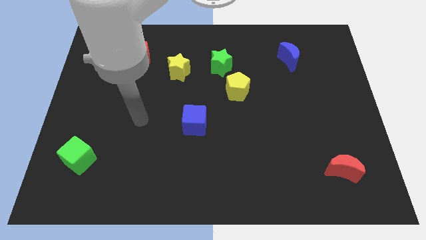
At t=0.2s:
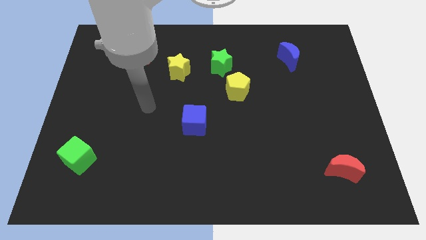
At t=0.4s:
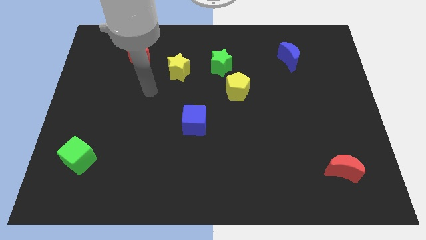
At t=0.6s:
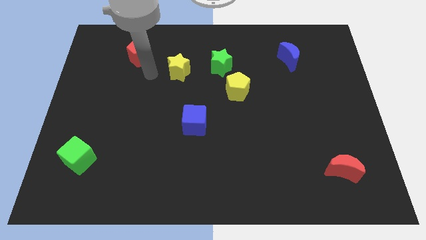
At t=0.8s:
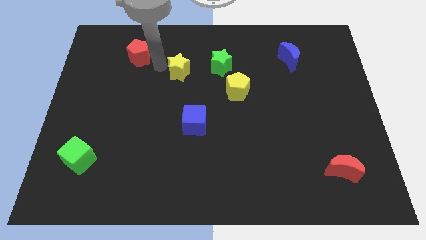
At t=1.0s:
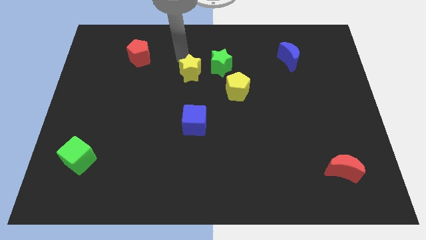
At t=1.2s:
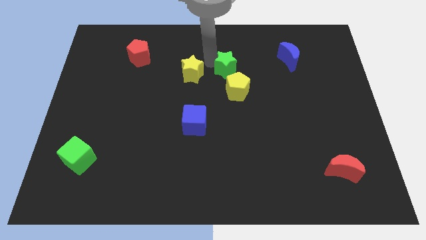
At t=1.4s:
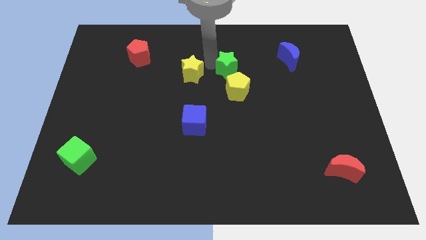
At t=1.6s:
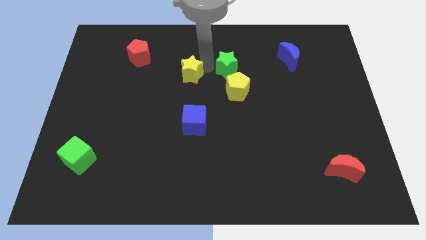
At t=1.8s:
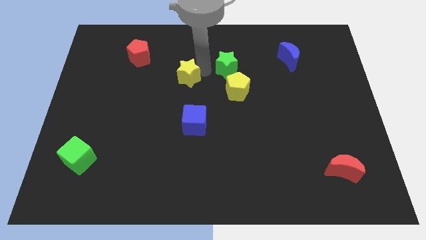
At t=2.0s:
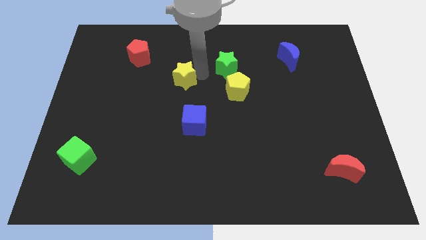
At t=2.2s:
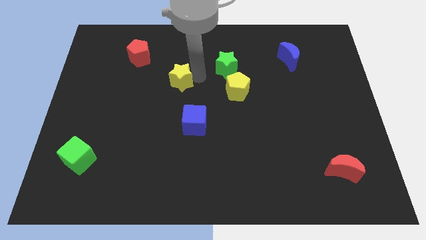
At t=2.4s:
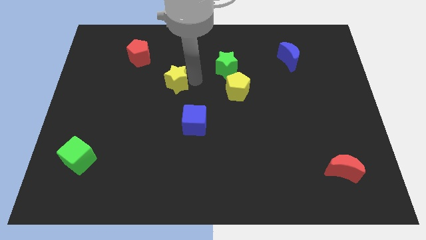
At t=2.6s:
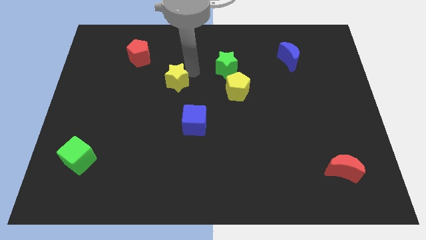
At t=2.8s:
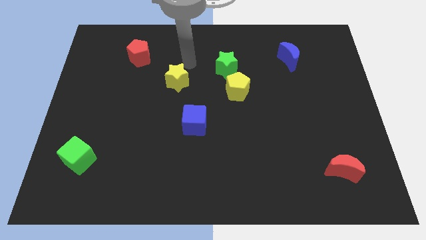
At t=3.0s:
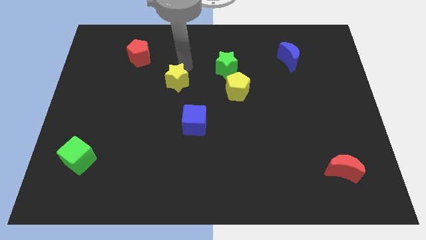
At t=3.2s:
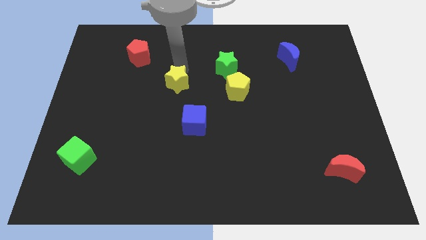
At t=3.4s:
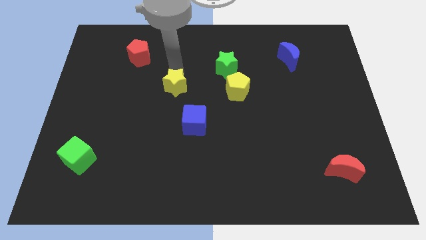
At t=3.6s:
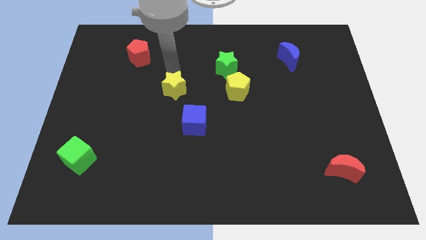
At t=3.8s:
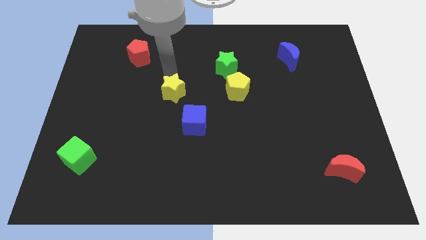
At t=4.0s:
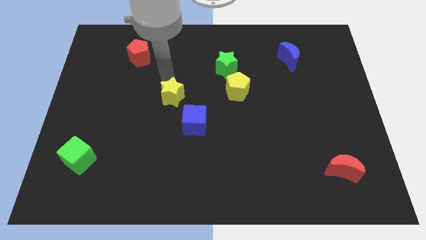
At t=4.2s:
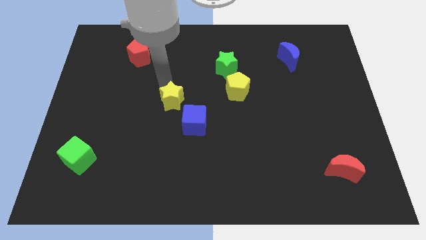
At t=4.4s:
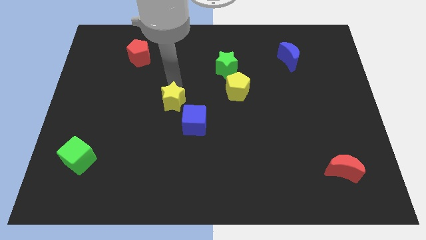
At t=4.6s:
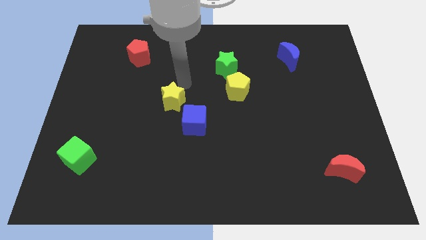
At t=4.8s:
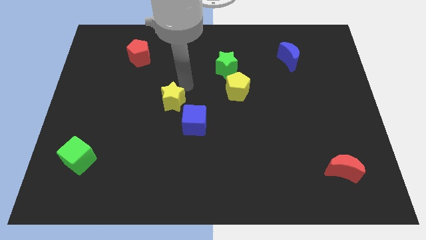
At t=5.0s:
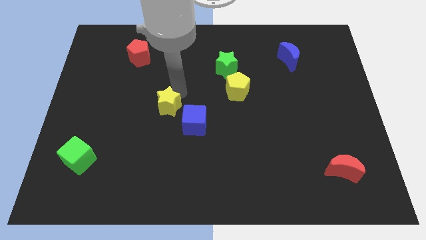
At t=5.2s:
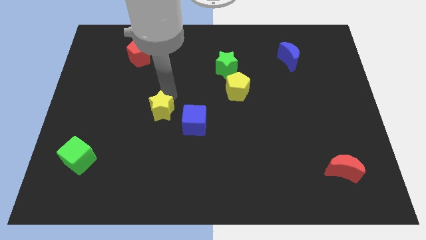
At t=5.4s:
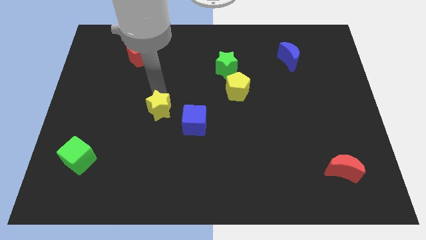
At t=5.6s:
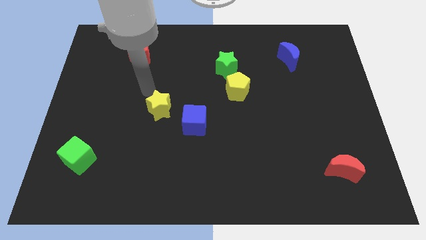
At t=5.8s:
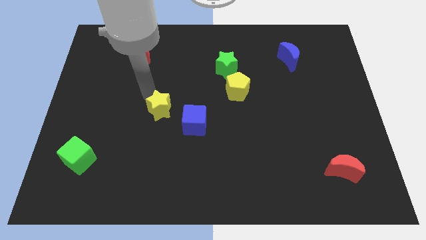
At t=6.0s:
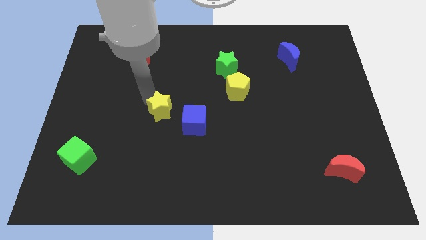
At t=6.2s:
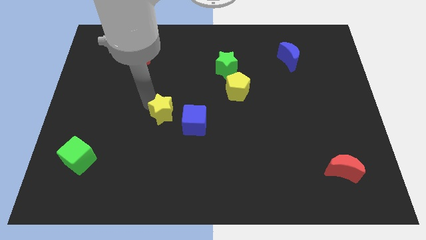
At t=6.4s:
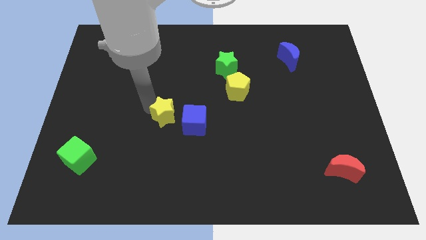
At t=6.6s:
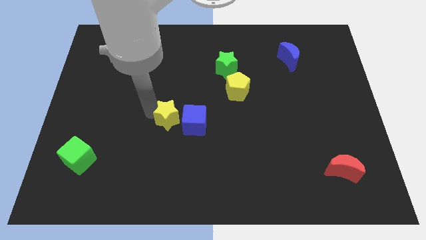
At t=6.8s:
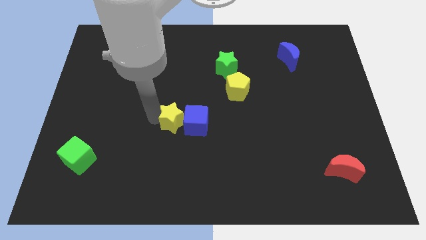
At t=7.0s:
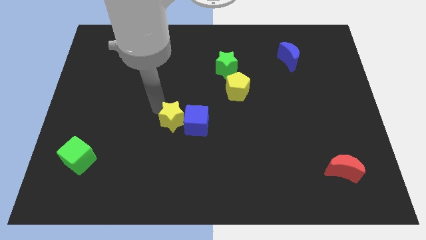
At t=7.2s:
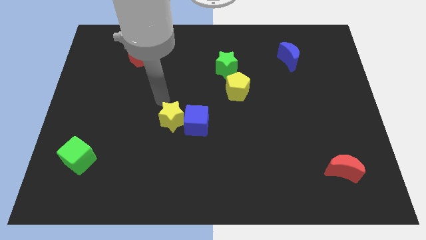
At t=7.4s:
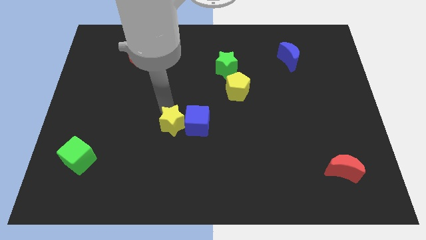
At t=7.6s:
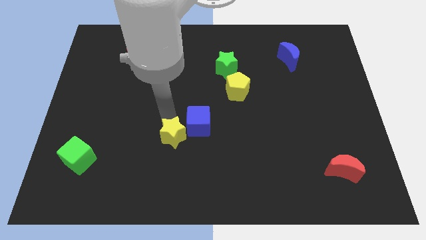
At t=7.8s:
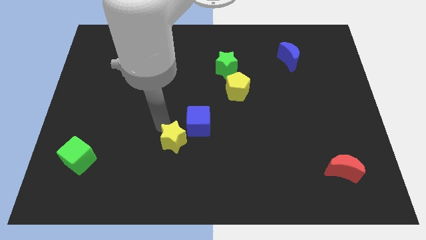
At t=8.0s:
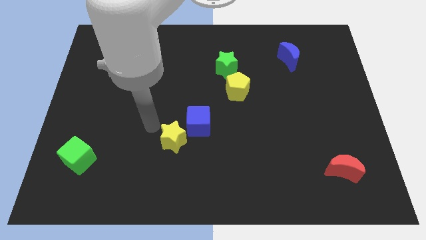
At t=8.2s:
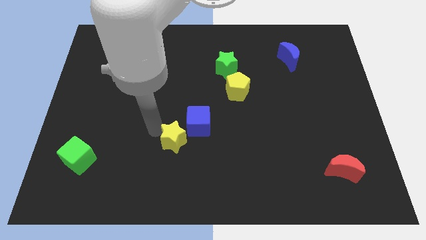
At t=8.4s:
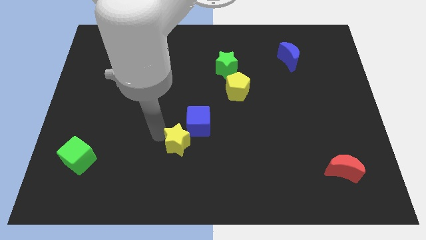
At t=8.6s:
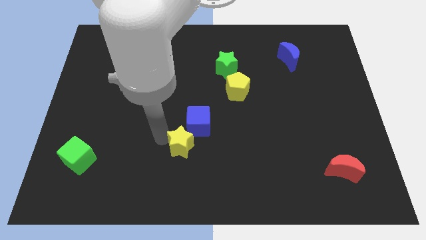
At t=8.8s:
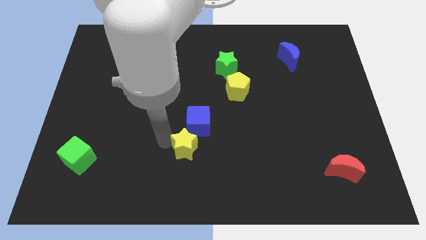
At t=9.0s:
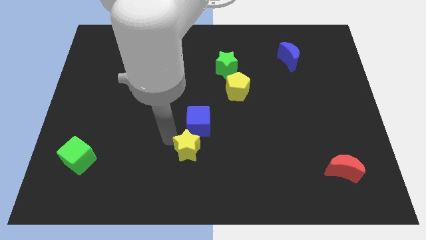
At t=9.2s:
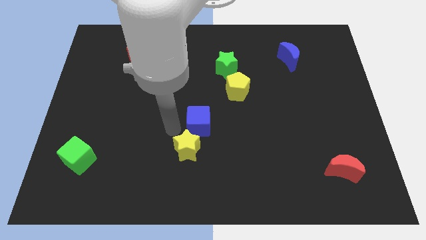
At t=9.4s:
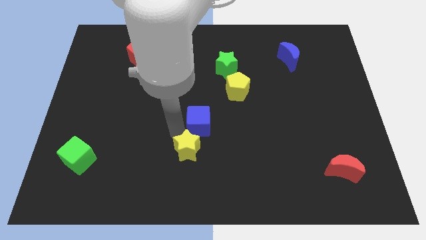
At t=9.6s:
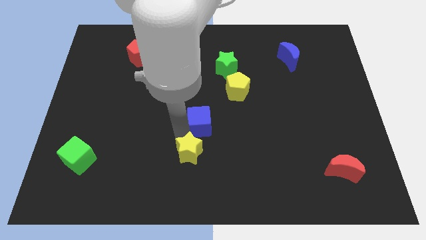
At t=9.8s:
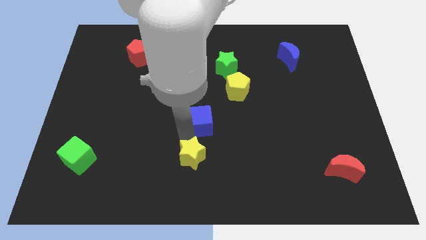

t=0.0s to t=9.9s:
move the yellow star to the bottom

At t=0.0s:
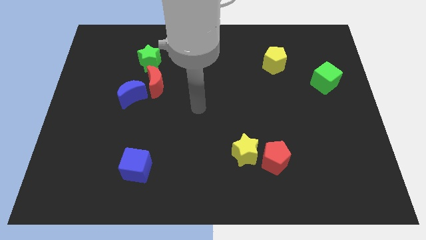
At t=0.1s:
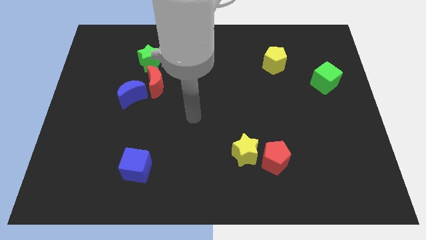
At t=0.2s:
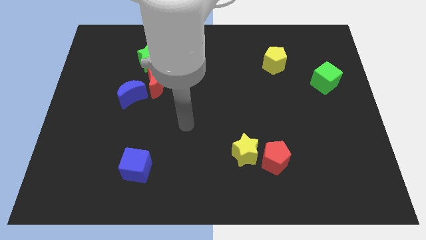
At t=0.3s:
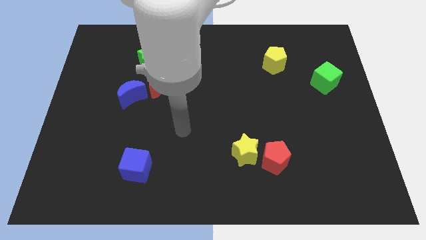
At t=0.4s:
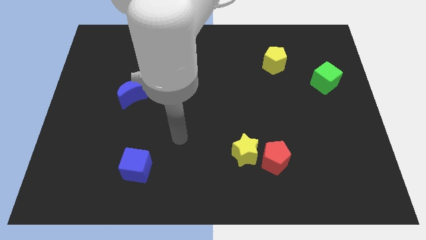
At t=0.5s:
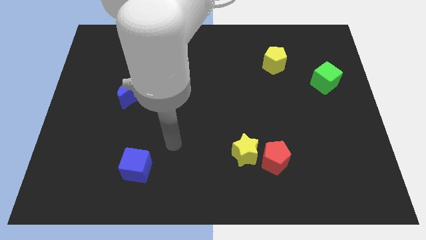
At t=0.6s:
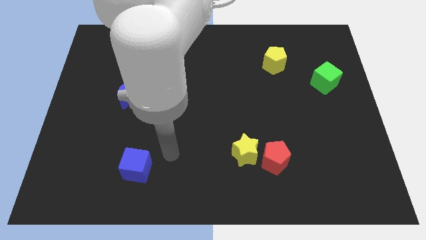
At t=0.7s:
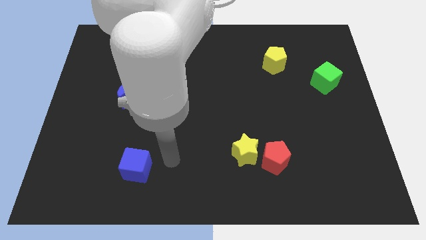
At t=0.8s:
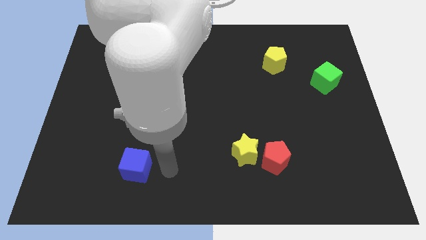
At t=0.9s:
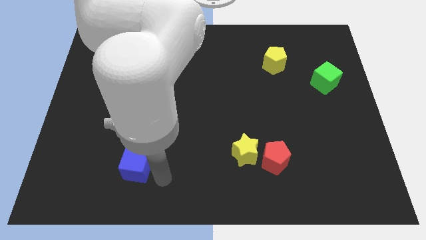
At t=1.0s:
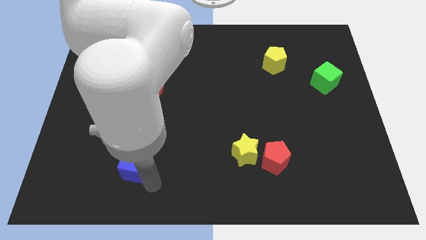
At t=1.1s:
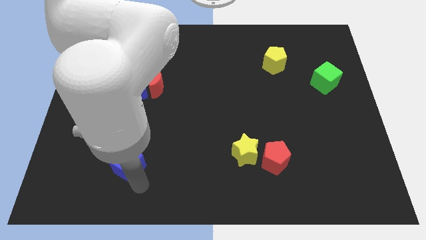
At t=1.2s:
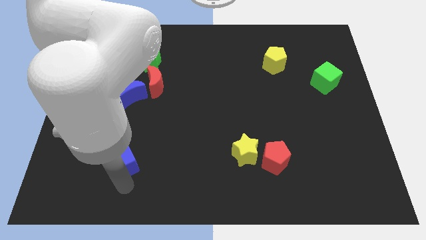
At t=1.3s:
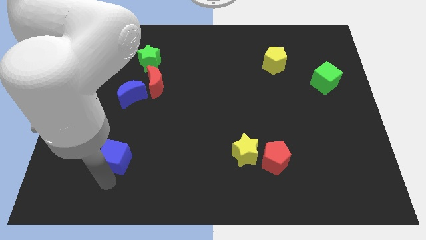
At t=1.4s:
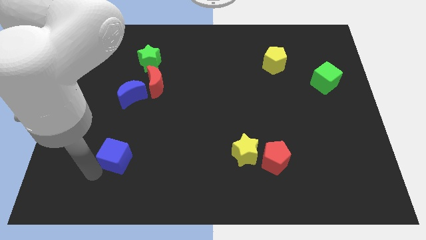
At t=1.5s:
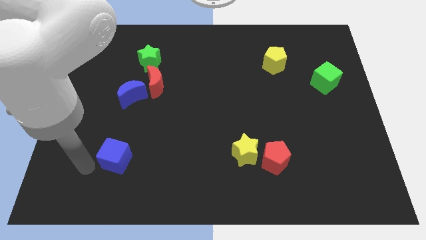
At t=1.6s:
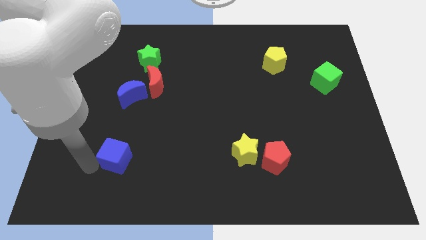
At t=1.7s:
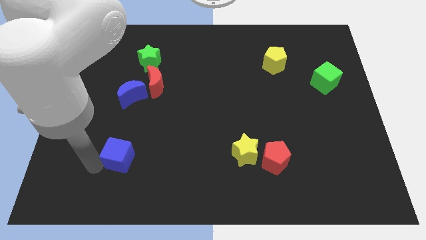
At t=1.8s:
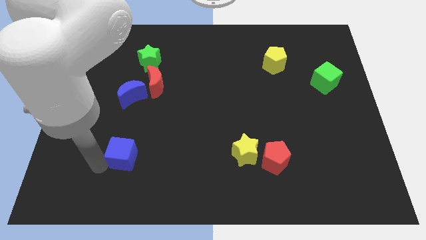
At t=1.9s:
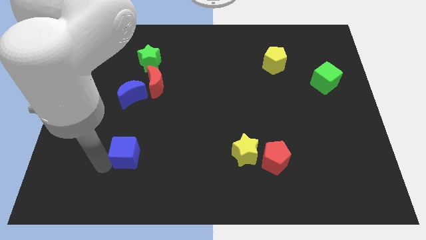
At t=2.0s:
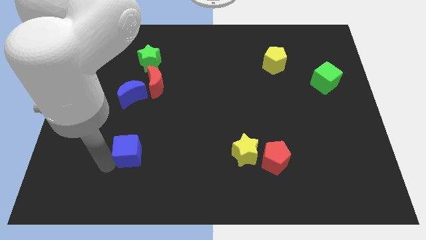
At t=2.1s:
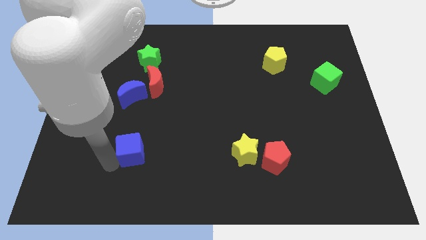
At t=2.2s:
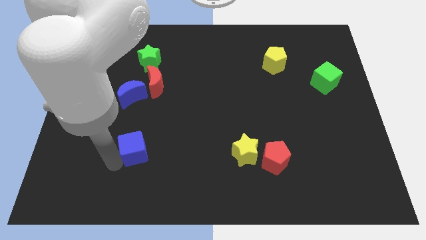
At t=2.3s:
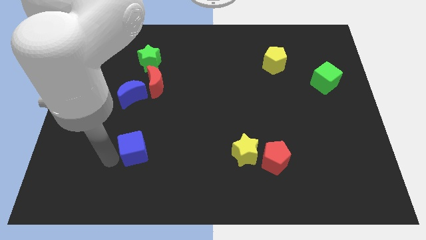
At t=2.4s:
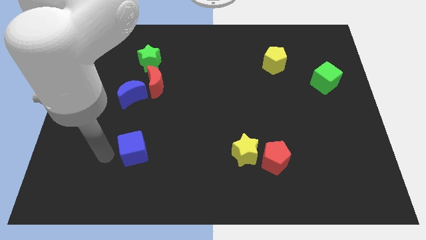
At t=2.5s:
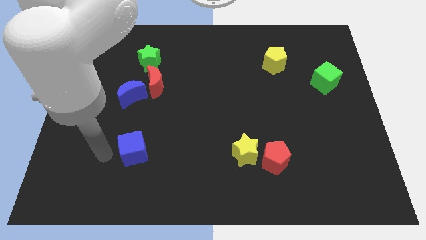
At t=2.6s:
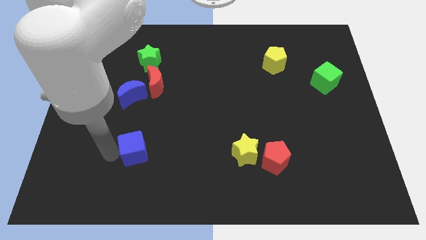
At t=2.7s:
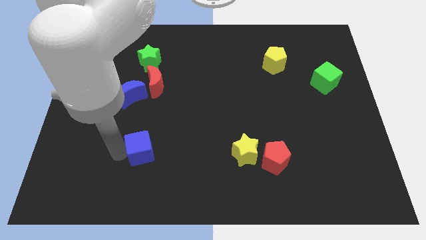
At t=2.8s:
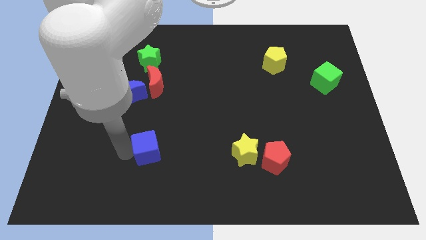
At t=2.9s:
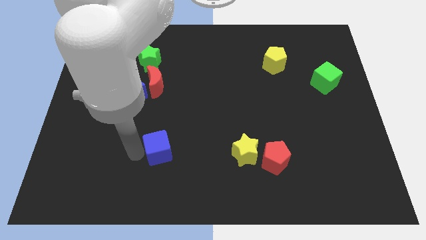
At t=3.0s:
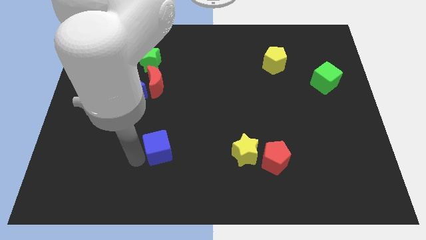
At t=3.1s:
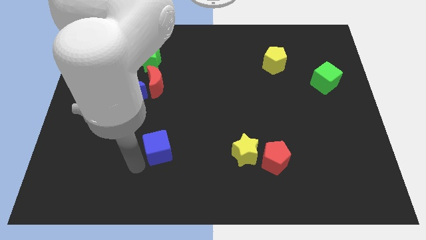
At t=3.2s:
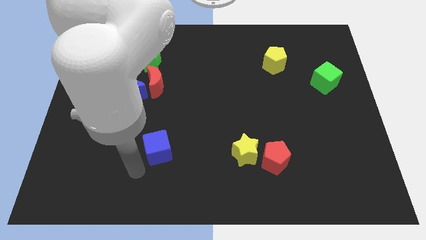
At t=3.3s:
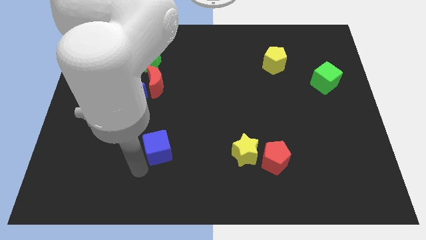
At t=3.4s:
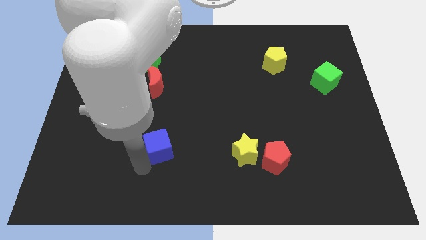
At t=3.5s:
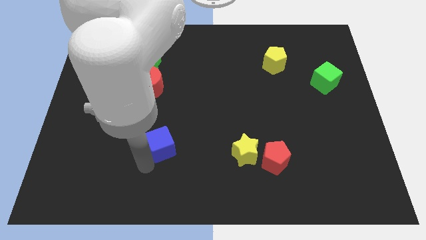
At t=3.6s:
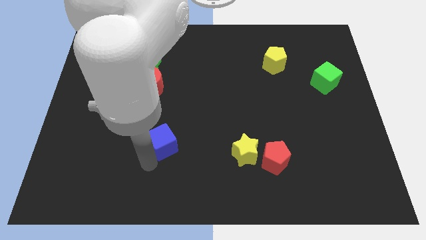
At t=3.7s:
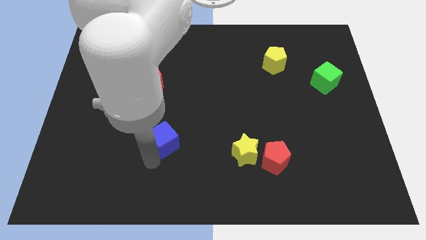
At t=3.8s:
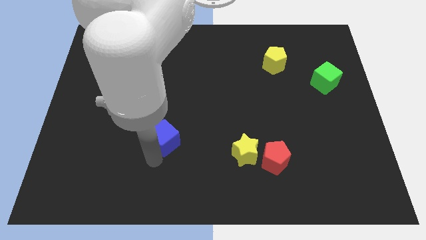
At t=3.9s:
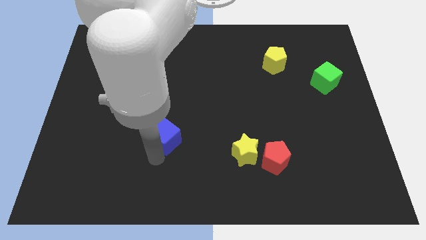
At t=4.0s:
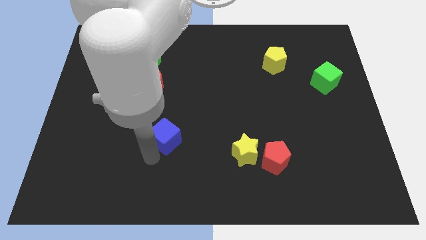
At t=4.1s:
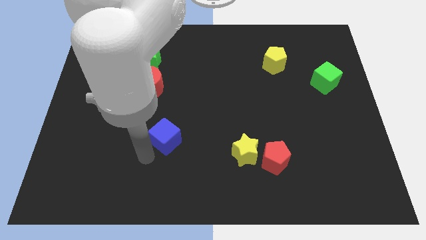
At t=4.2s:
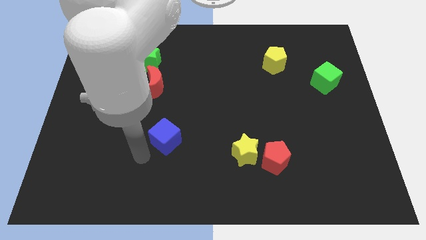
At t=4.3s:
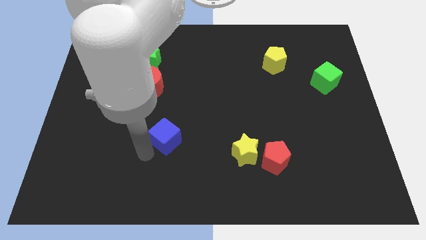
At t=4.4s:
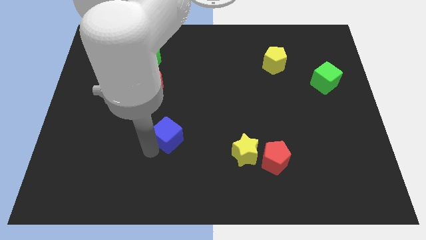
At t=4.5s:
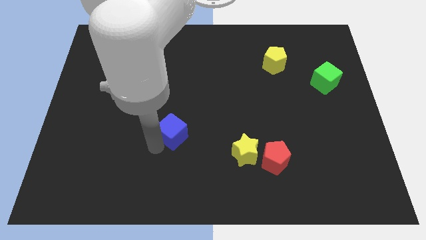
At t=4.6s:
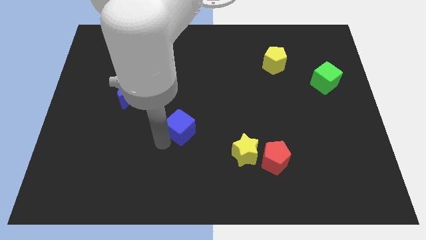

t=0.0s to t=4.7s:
move the blue cube to the center of the board
